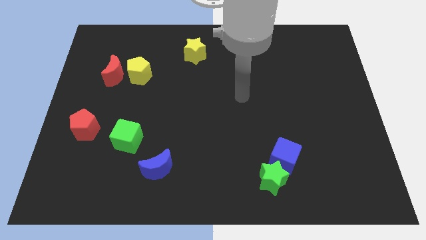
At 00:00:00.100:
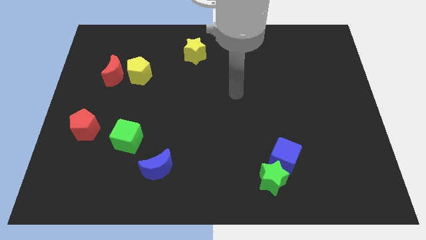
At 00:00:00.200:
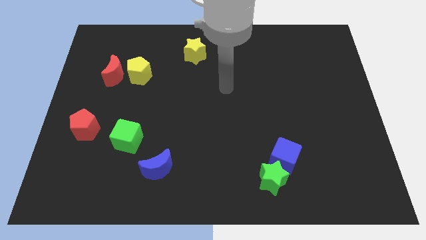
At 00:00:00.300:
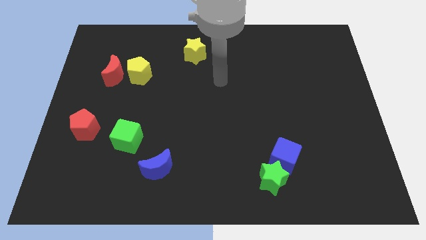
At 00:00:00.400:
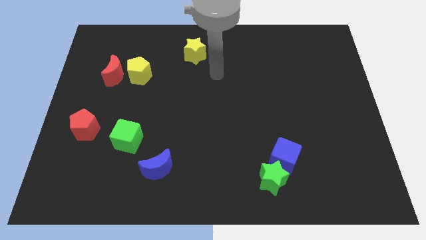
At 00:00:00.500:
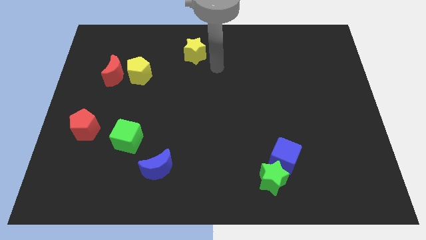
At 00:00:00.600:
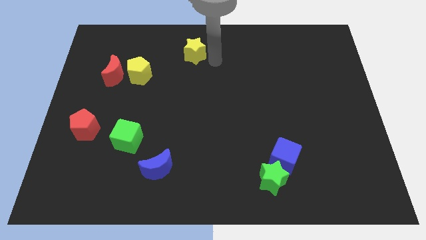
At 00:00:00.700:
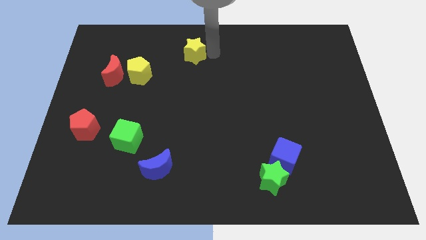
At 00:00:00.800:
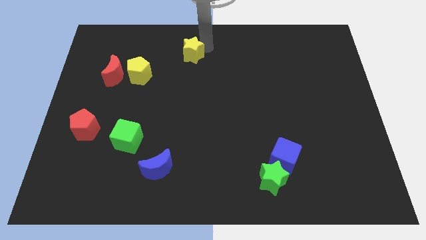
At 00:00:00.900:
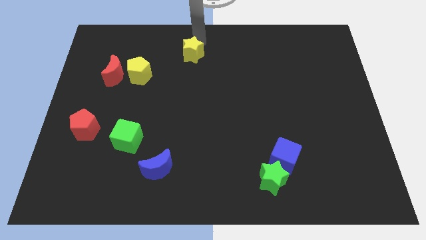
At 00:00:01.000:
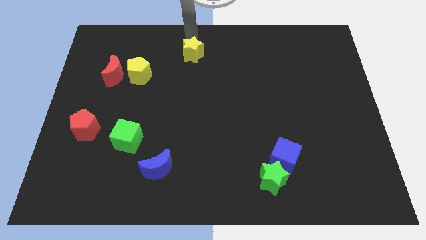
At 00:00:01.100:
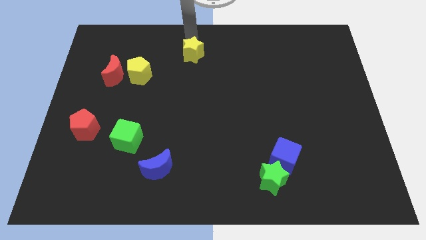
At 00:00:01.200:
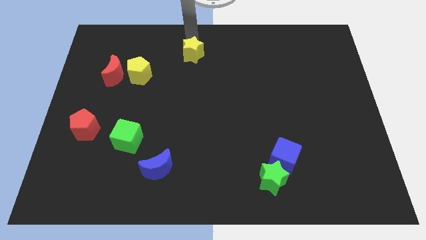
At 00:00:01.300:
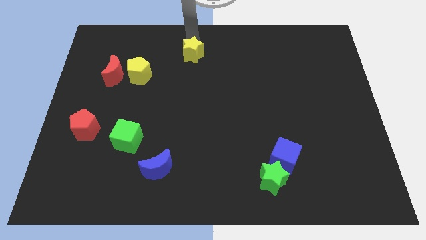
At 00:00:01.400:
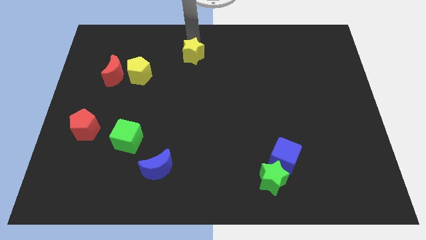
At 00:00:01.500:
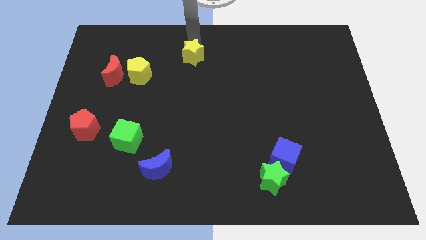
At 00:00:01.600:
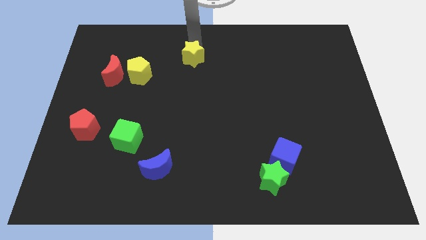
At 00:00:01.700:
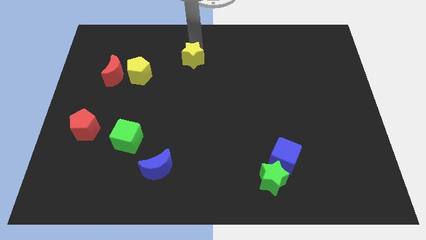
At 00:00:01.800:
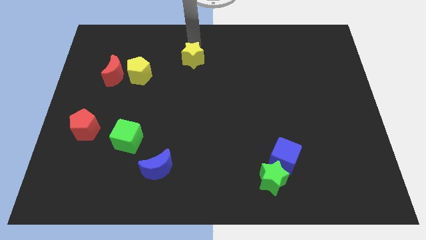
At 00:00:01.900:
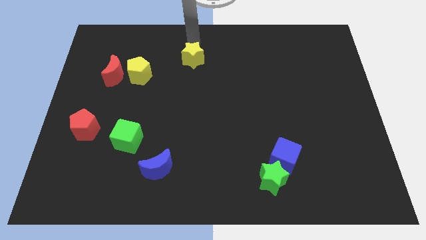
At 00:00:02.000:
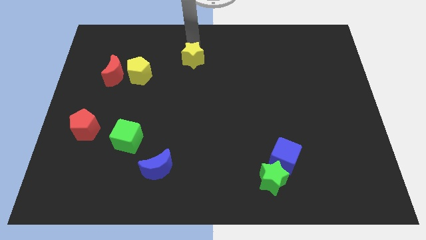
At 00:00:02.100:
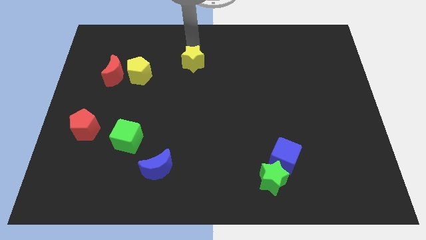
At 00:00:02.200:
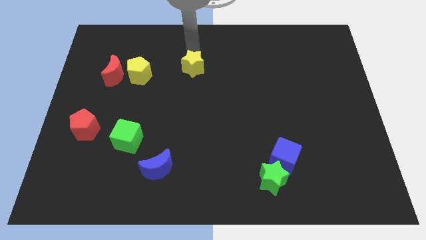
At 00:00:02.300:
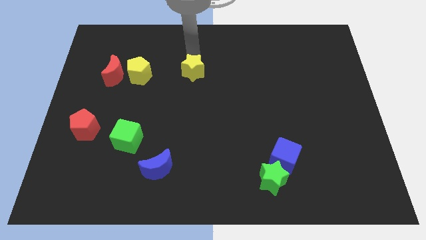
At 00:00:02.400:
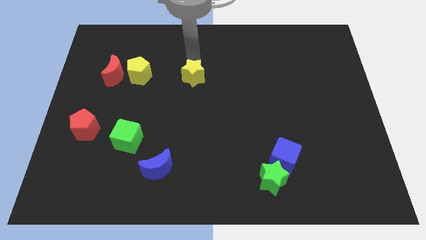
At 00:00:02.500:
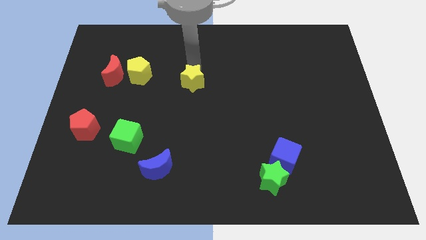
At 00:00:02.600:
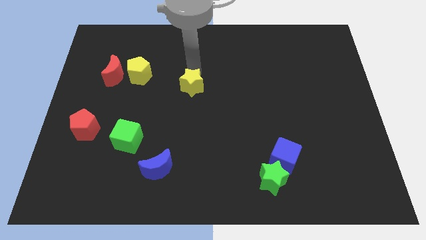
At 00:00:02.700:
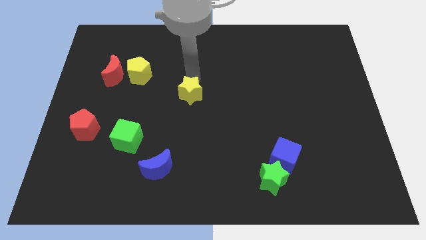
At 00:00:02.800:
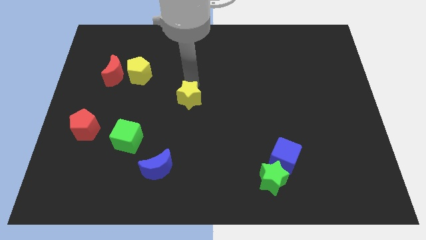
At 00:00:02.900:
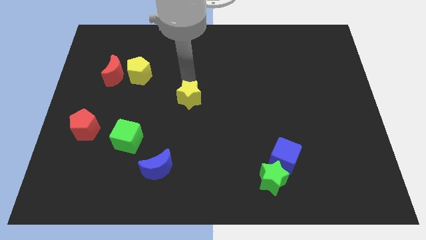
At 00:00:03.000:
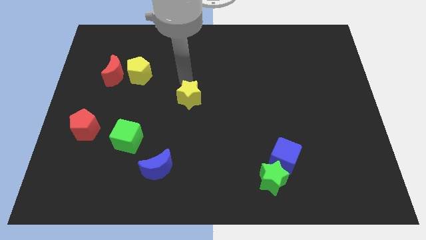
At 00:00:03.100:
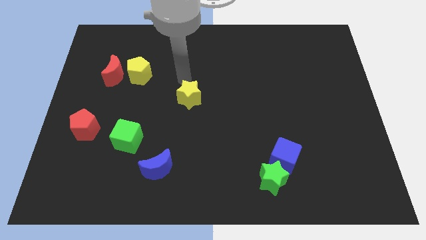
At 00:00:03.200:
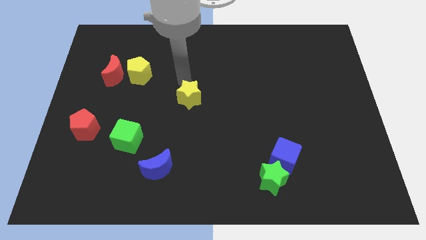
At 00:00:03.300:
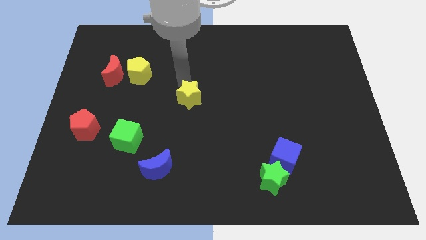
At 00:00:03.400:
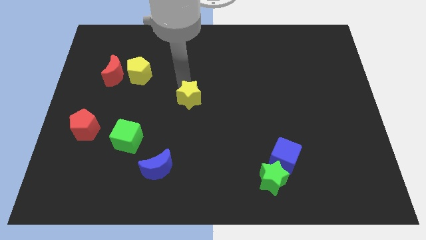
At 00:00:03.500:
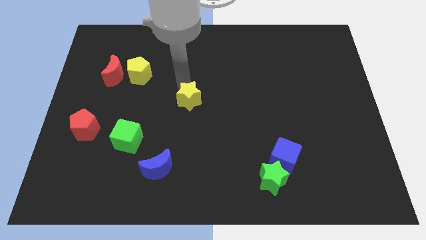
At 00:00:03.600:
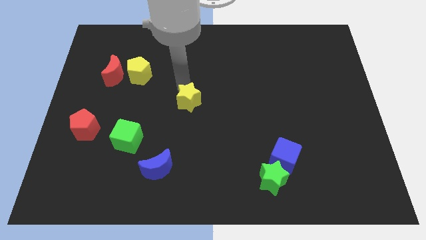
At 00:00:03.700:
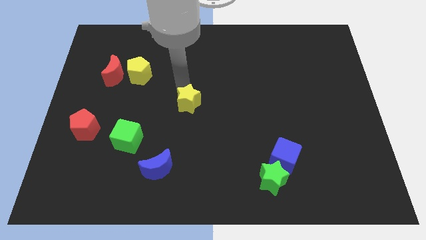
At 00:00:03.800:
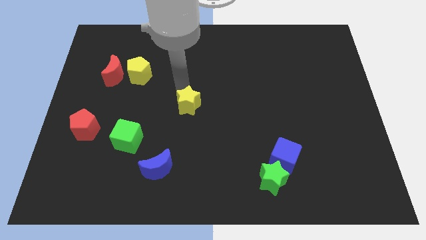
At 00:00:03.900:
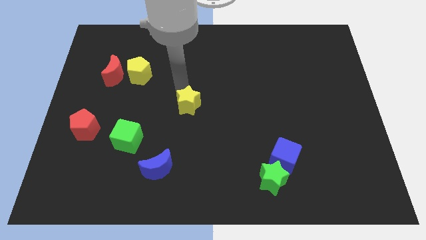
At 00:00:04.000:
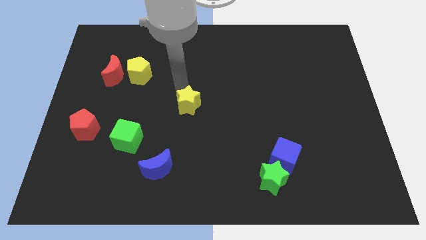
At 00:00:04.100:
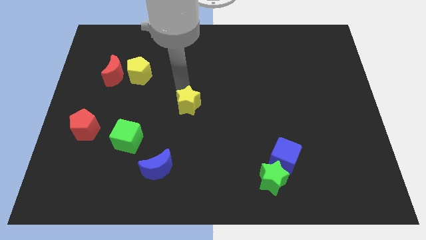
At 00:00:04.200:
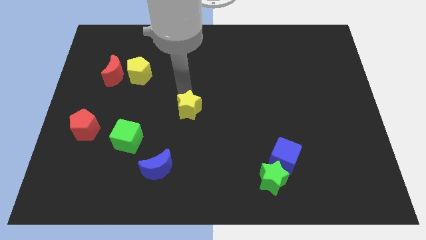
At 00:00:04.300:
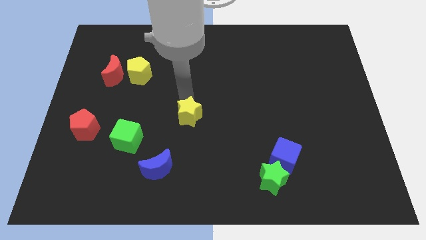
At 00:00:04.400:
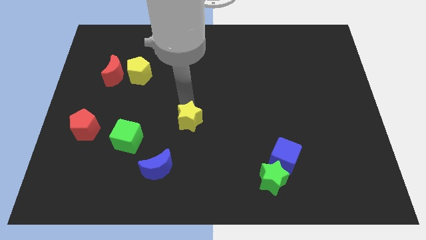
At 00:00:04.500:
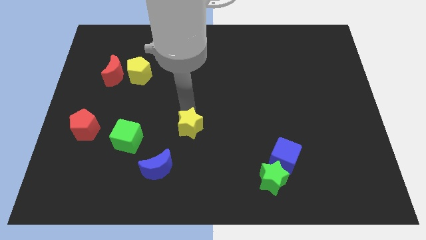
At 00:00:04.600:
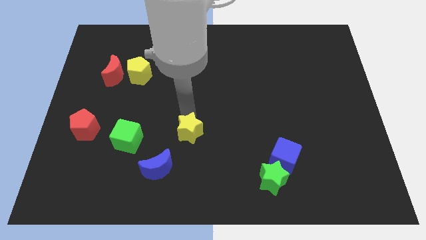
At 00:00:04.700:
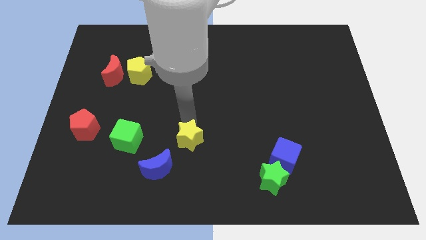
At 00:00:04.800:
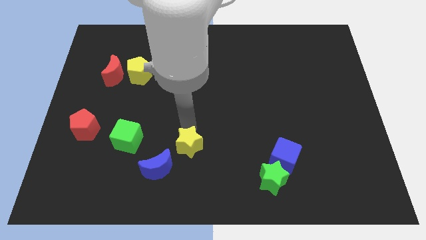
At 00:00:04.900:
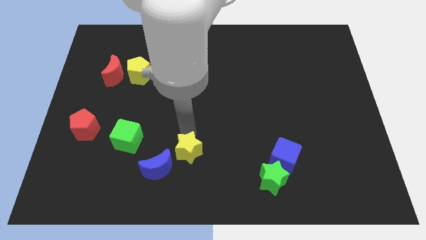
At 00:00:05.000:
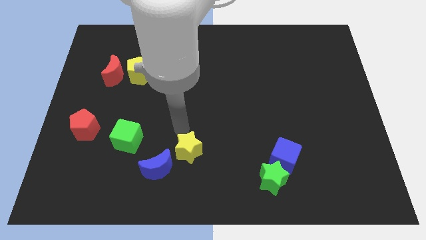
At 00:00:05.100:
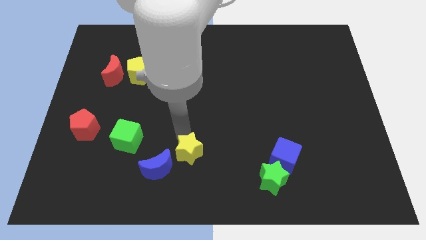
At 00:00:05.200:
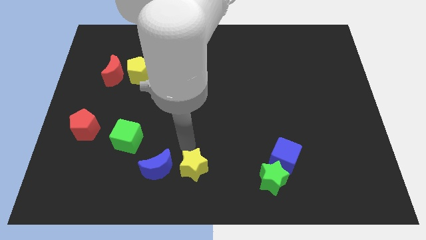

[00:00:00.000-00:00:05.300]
move the yellow star to the bottom
